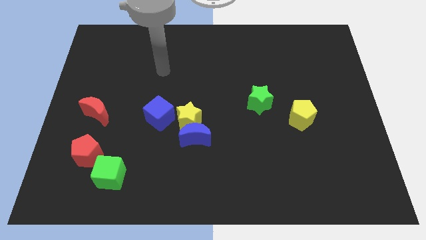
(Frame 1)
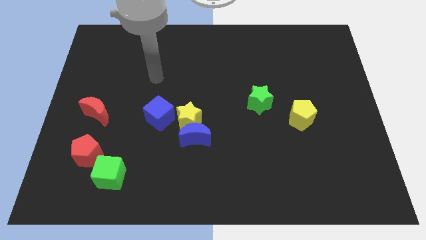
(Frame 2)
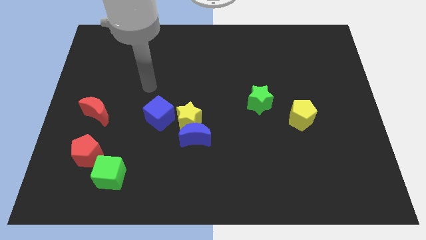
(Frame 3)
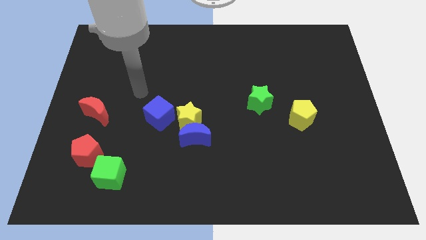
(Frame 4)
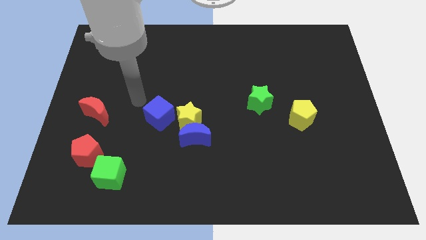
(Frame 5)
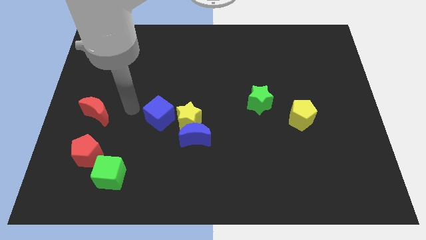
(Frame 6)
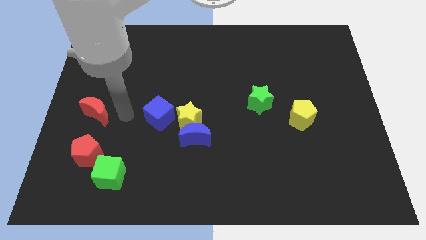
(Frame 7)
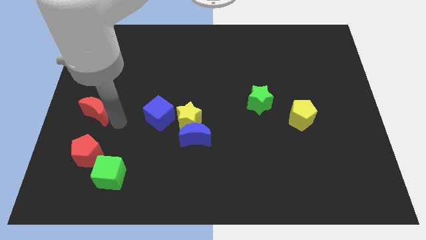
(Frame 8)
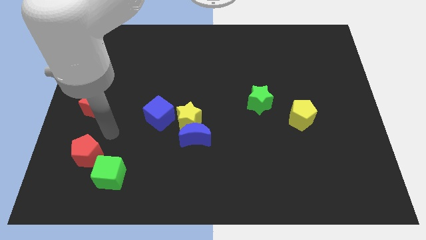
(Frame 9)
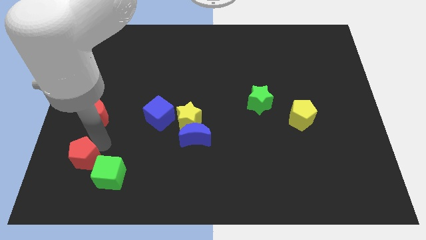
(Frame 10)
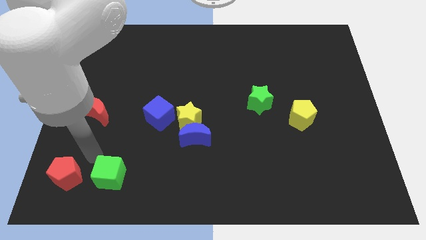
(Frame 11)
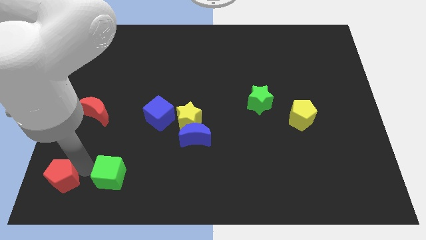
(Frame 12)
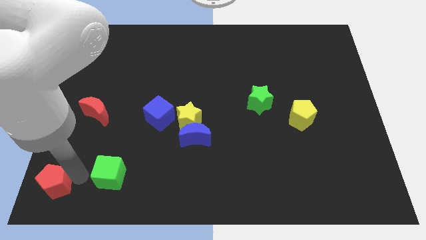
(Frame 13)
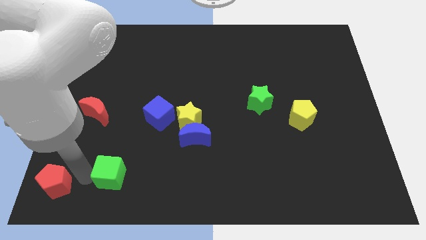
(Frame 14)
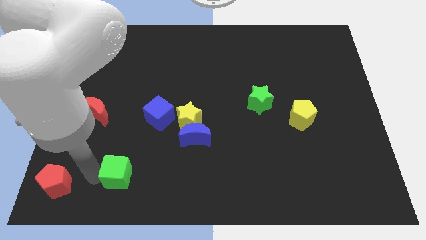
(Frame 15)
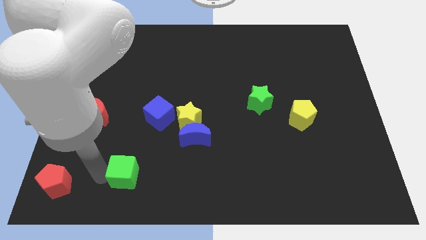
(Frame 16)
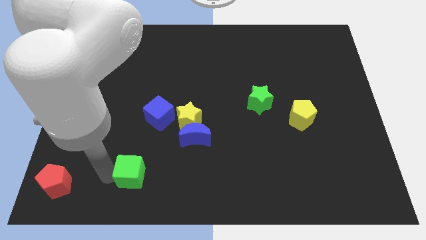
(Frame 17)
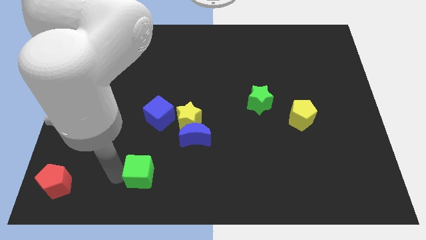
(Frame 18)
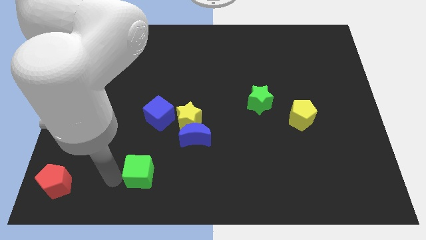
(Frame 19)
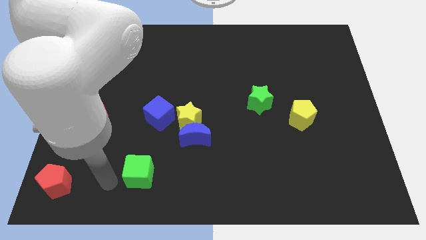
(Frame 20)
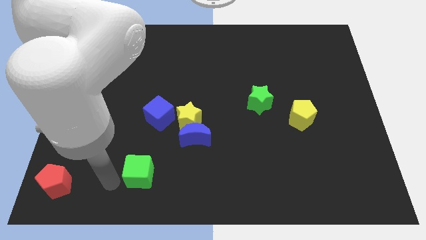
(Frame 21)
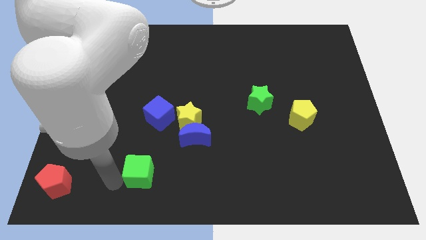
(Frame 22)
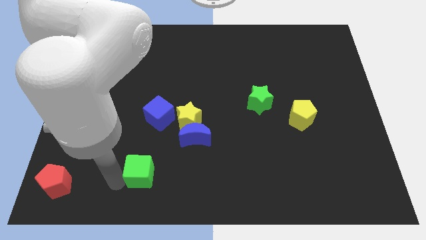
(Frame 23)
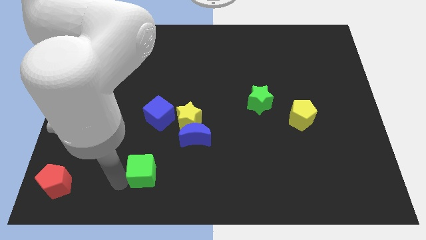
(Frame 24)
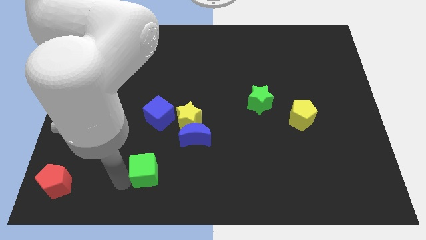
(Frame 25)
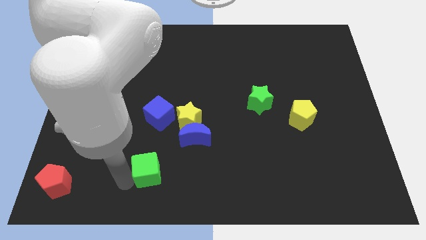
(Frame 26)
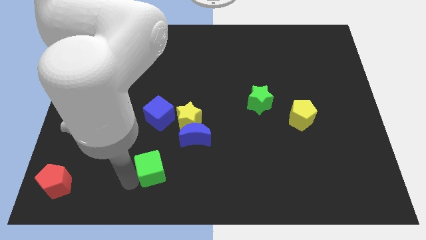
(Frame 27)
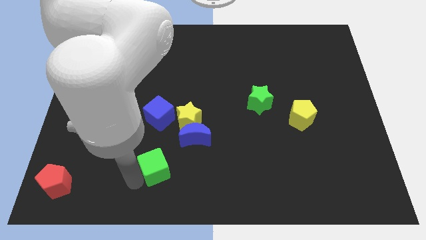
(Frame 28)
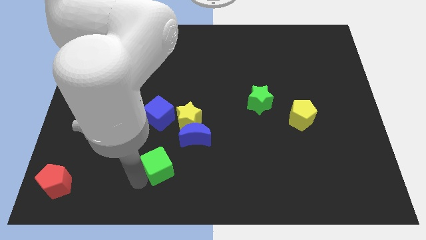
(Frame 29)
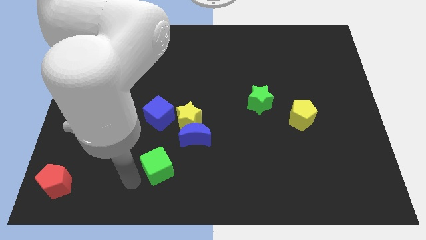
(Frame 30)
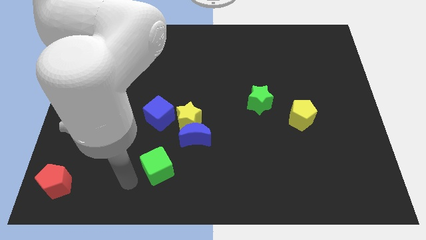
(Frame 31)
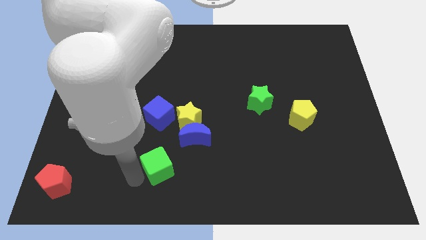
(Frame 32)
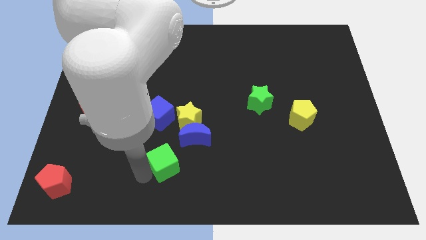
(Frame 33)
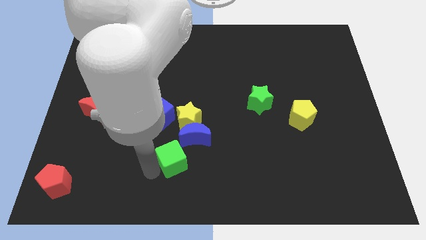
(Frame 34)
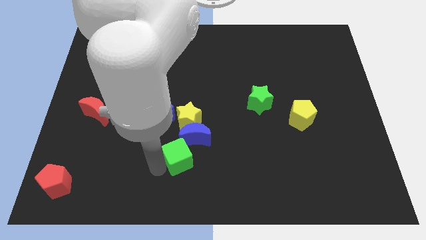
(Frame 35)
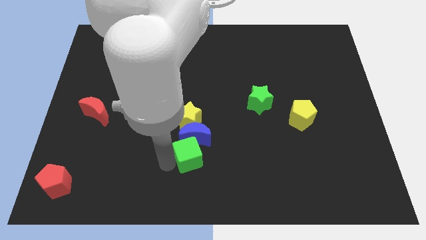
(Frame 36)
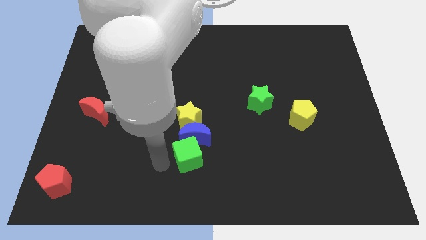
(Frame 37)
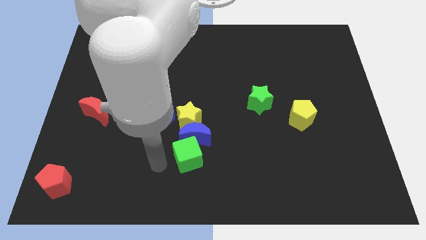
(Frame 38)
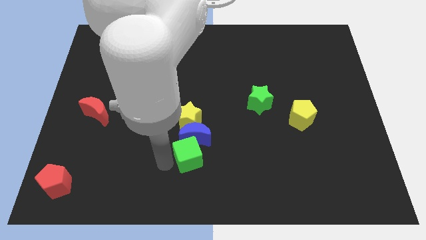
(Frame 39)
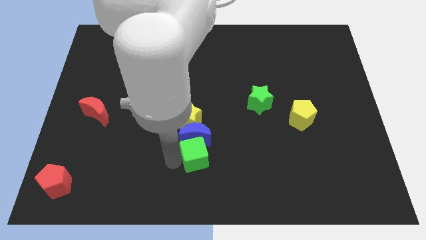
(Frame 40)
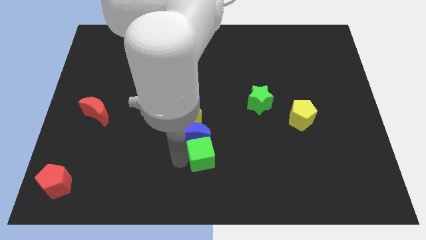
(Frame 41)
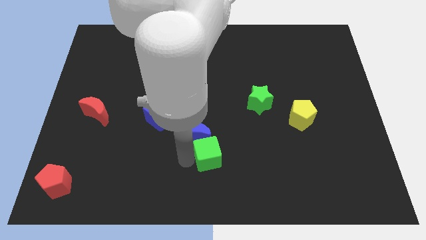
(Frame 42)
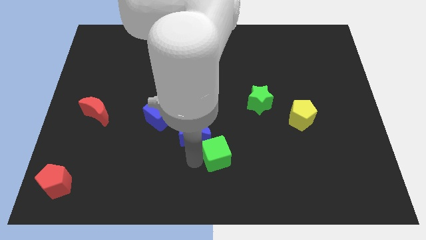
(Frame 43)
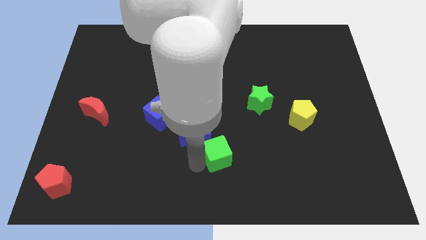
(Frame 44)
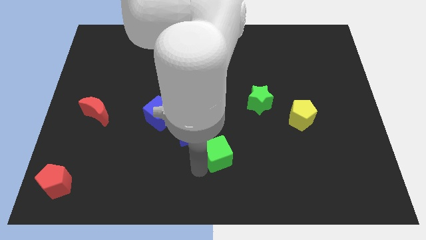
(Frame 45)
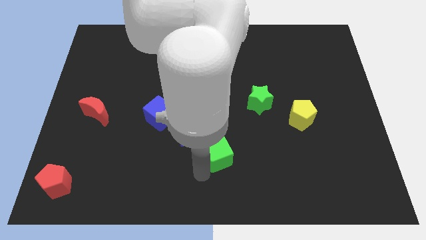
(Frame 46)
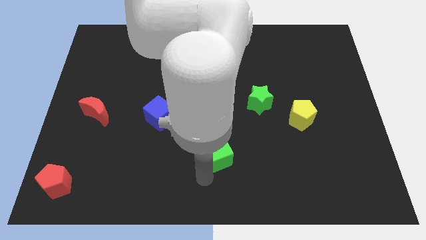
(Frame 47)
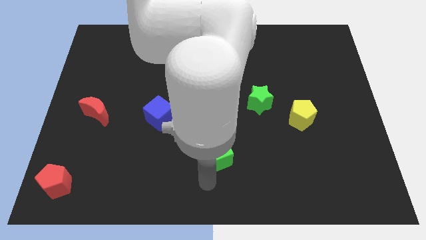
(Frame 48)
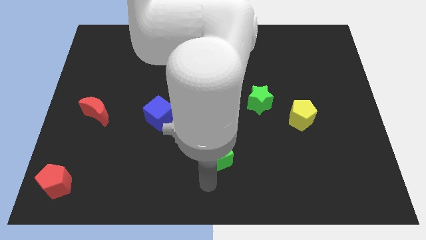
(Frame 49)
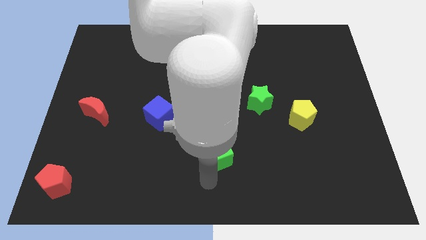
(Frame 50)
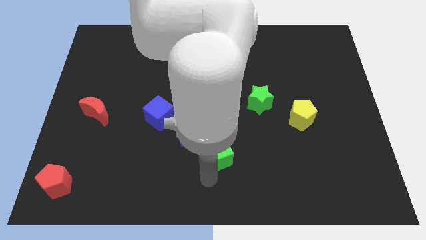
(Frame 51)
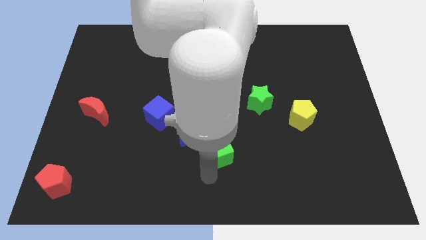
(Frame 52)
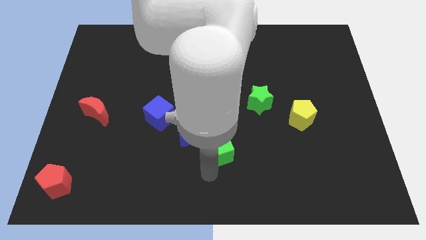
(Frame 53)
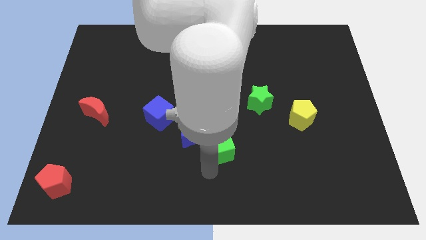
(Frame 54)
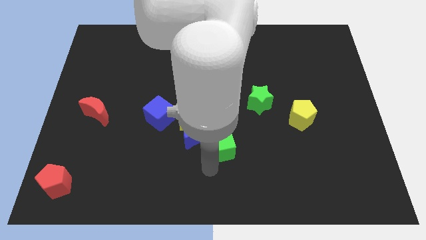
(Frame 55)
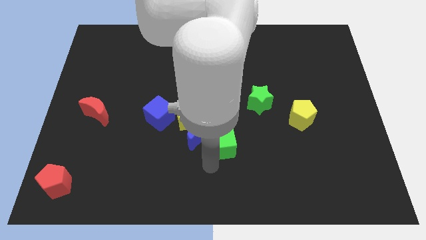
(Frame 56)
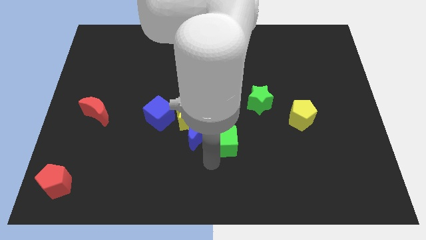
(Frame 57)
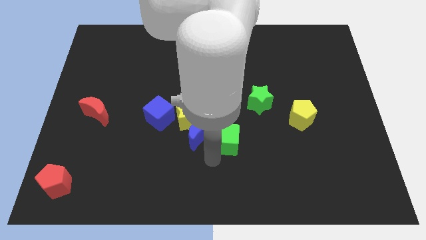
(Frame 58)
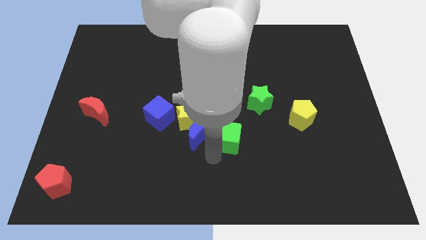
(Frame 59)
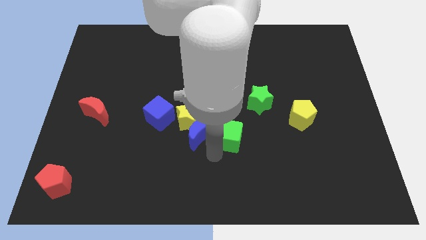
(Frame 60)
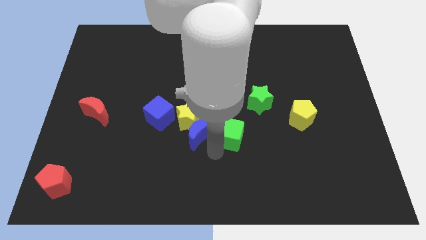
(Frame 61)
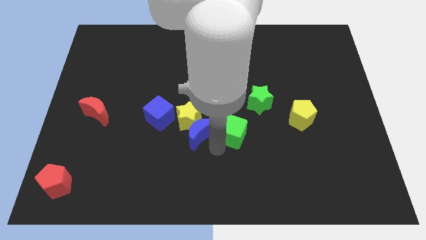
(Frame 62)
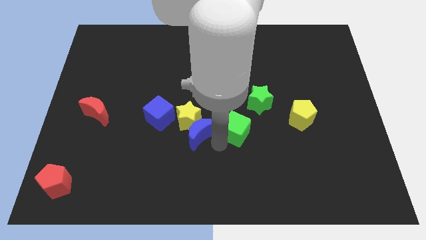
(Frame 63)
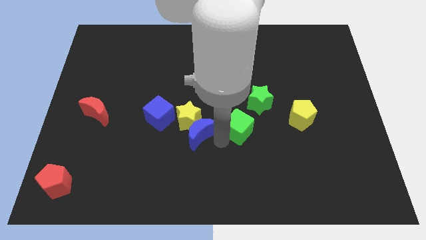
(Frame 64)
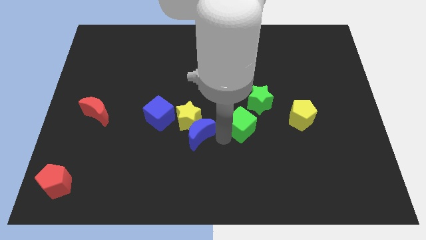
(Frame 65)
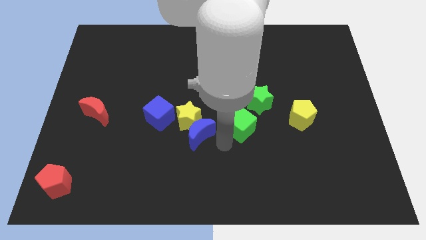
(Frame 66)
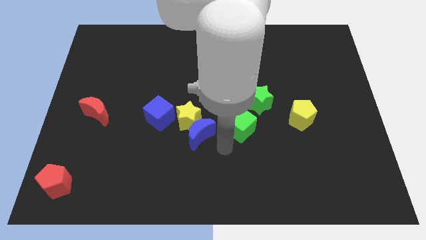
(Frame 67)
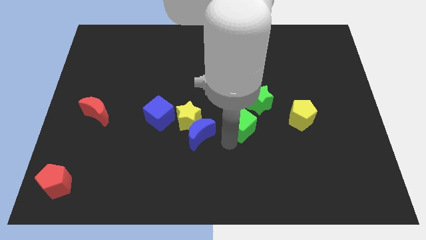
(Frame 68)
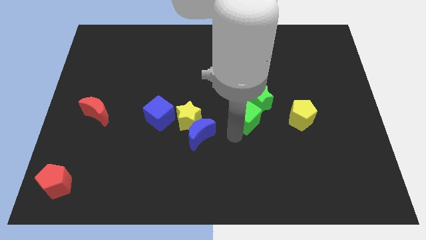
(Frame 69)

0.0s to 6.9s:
move the green cube close to the green star

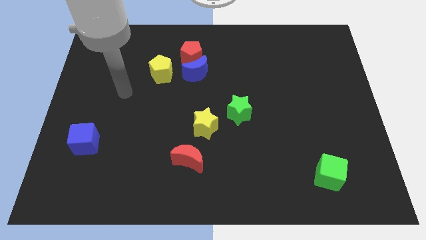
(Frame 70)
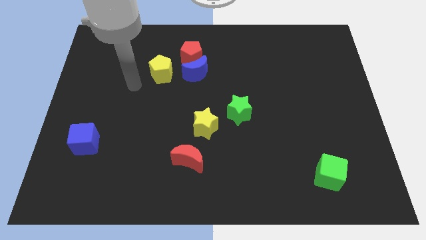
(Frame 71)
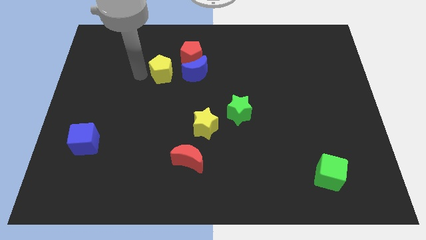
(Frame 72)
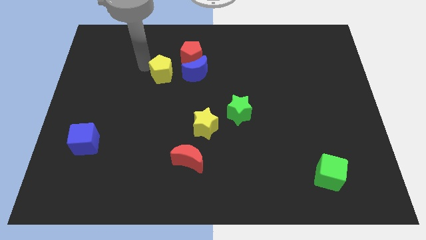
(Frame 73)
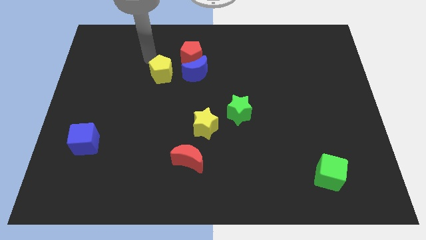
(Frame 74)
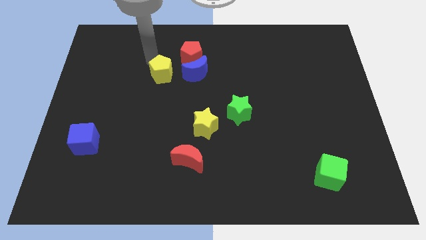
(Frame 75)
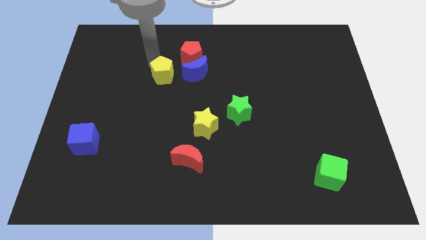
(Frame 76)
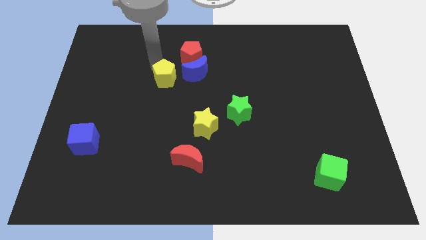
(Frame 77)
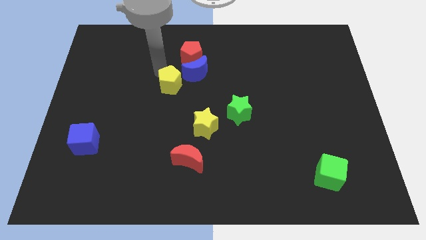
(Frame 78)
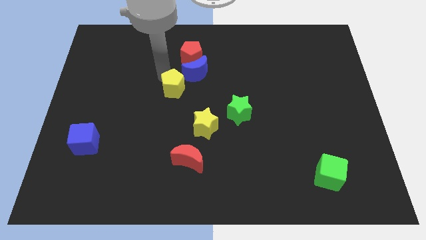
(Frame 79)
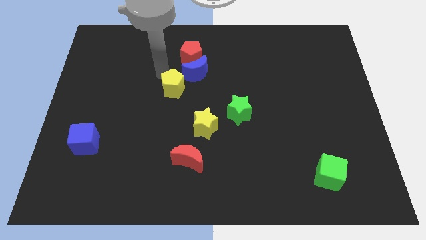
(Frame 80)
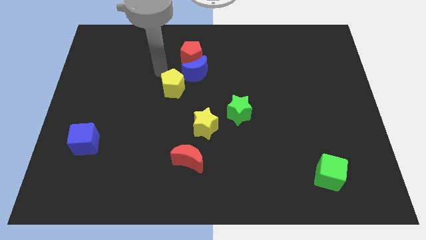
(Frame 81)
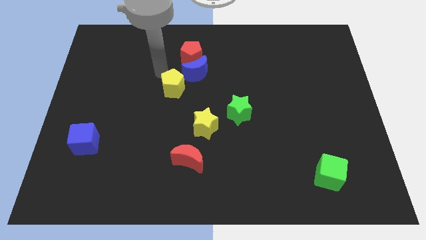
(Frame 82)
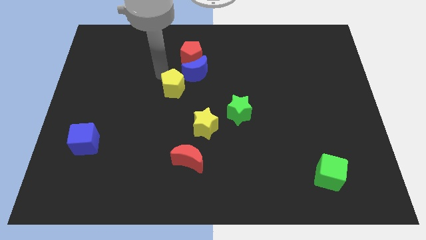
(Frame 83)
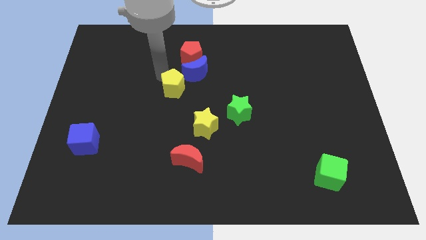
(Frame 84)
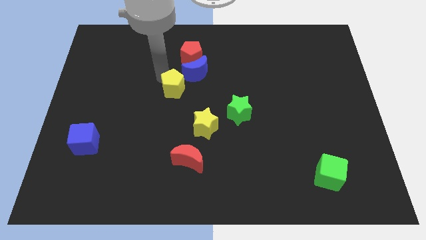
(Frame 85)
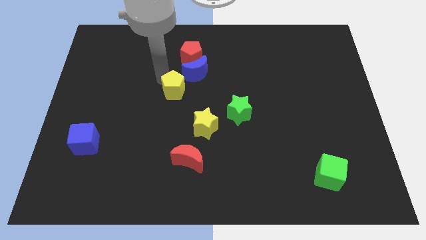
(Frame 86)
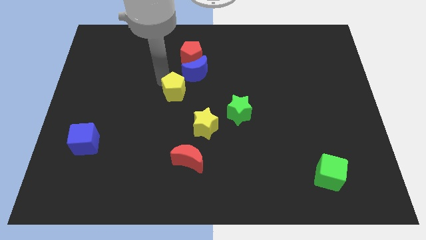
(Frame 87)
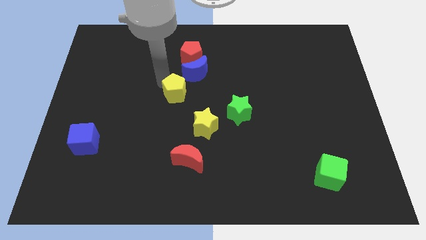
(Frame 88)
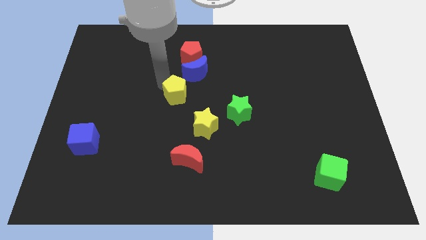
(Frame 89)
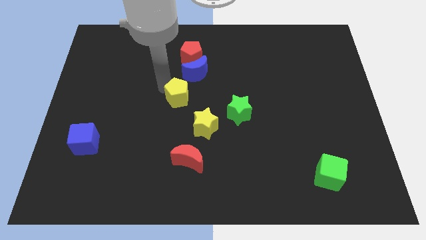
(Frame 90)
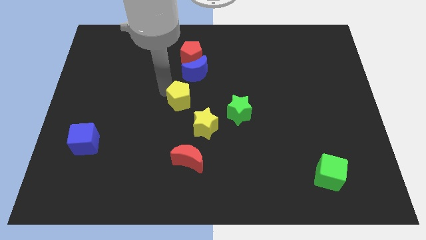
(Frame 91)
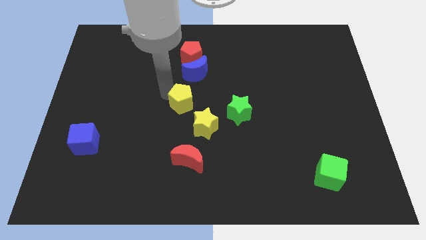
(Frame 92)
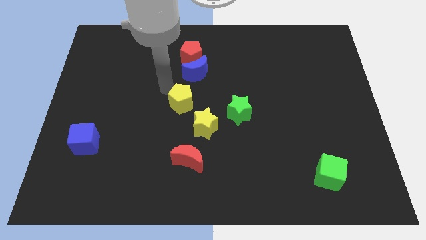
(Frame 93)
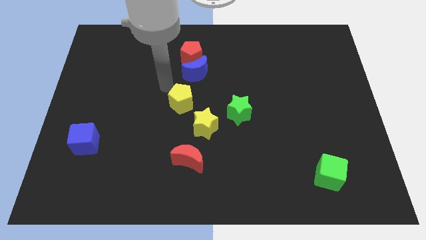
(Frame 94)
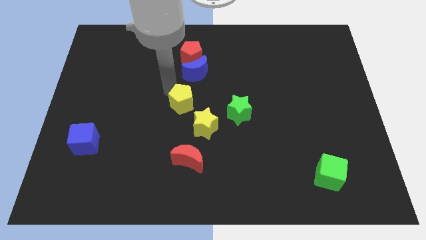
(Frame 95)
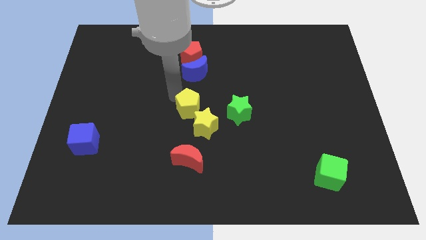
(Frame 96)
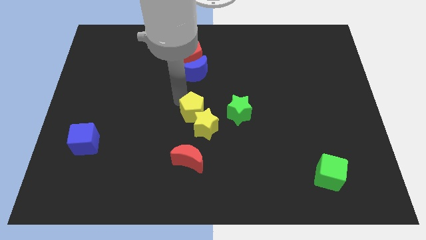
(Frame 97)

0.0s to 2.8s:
put the yellow pentagon next to the yellow star
